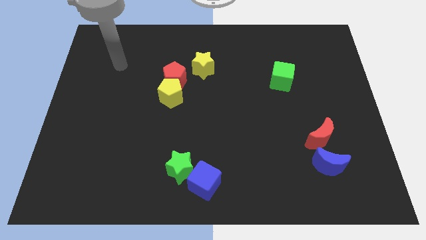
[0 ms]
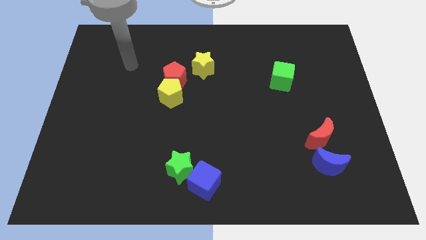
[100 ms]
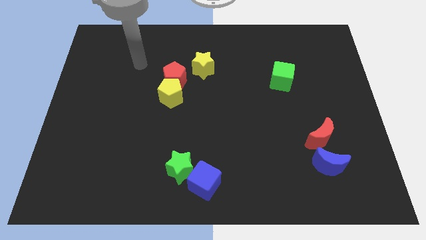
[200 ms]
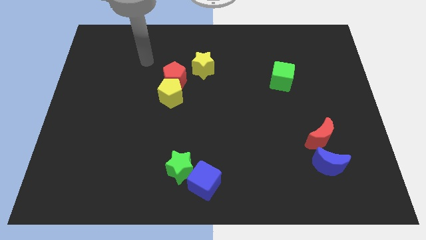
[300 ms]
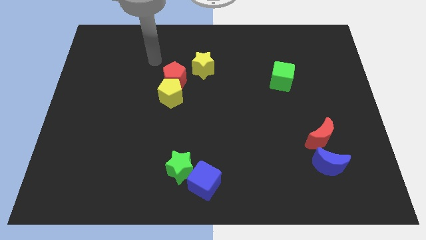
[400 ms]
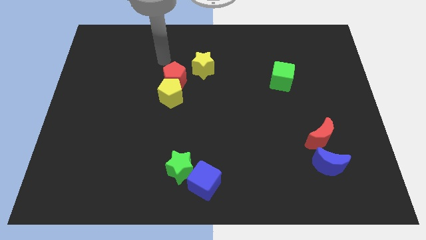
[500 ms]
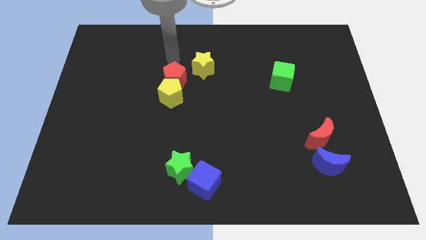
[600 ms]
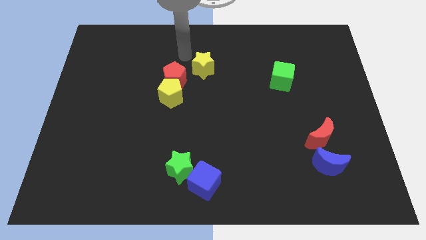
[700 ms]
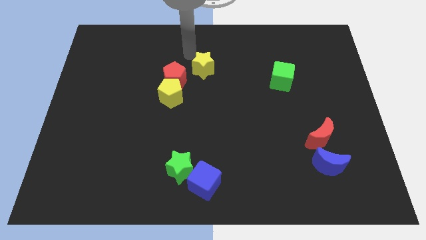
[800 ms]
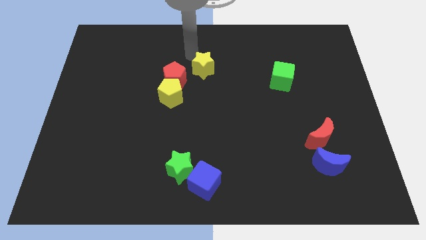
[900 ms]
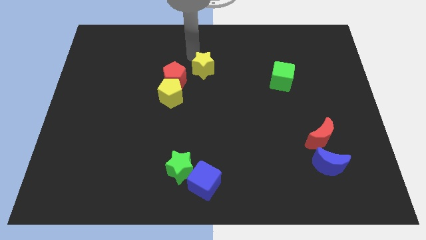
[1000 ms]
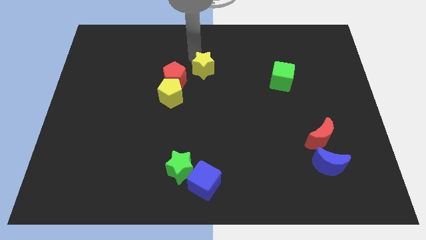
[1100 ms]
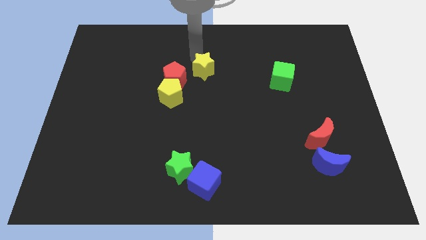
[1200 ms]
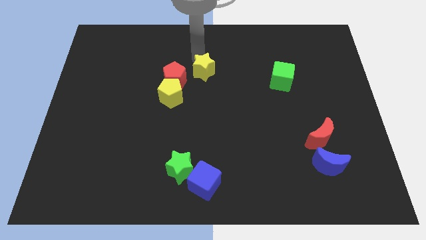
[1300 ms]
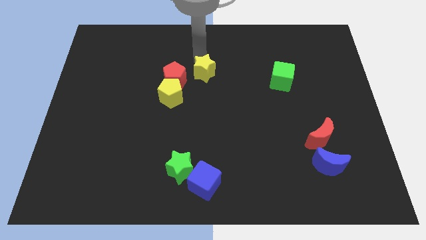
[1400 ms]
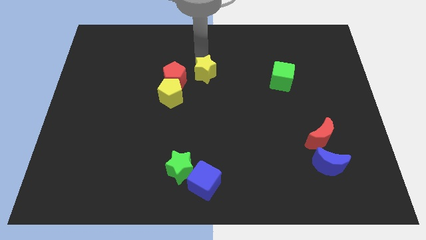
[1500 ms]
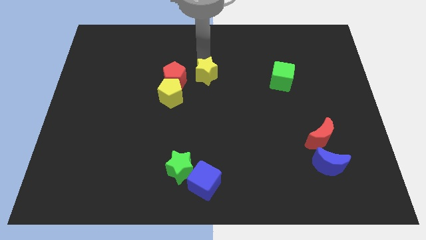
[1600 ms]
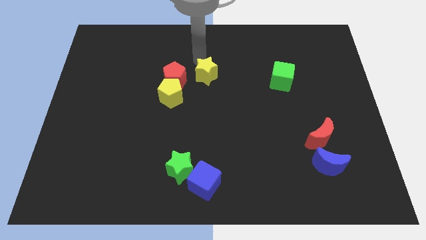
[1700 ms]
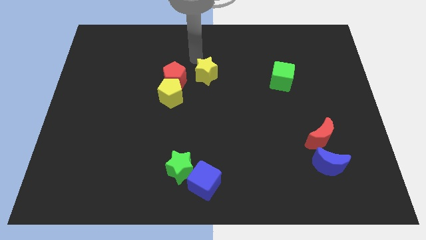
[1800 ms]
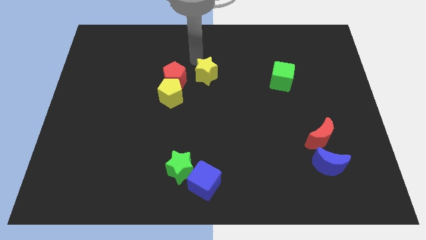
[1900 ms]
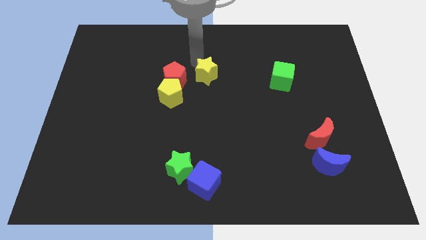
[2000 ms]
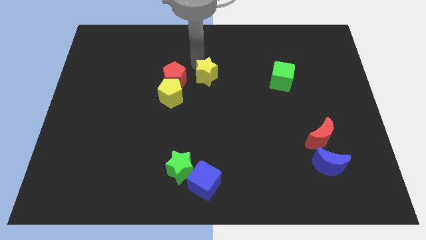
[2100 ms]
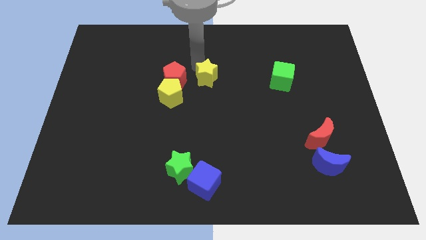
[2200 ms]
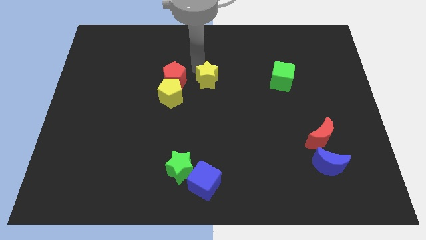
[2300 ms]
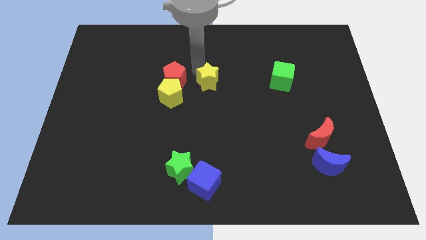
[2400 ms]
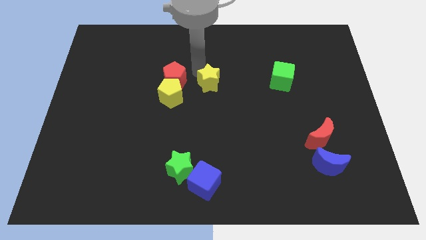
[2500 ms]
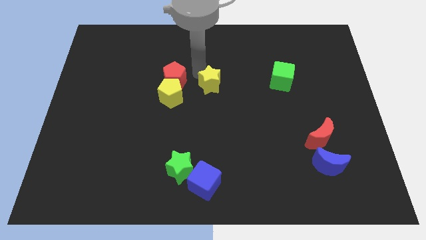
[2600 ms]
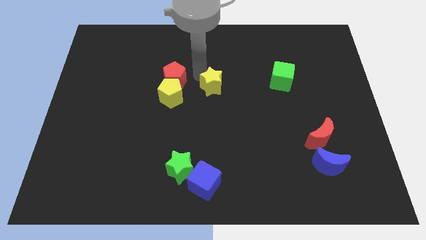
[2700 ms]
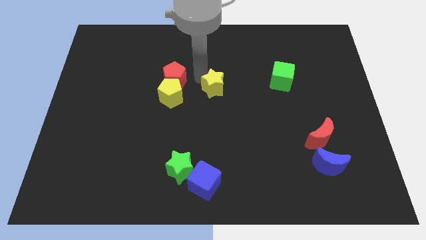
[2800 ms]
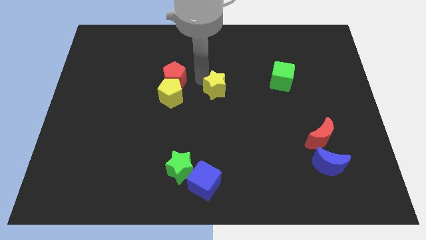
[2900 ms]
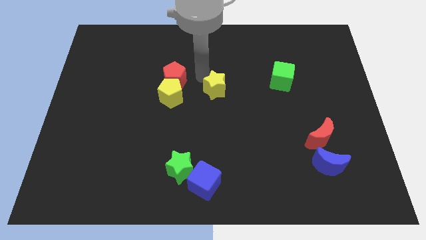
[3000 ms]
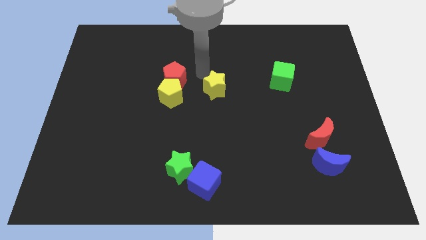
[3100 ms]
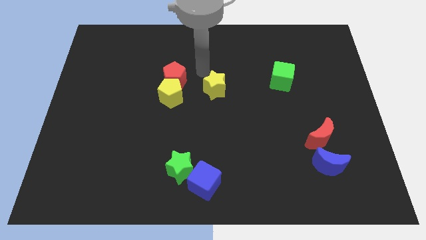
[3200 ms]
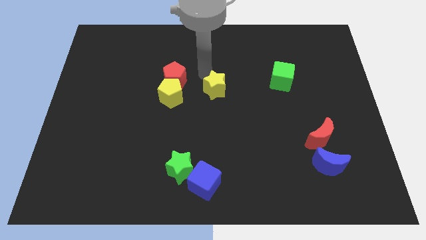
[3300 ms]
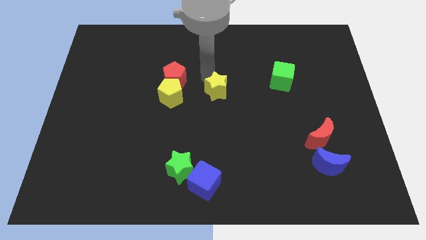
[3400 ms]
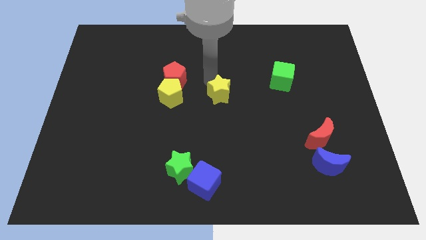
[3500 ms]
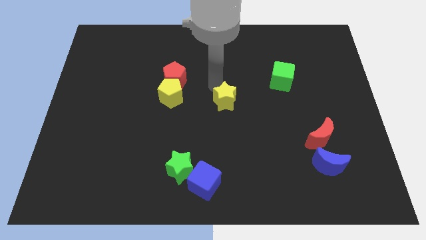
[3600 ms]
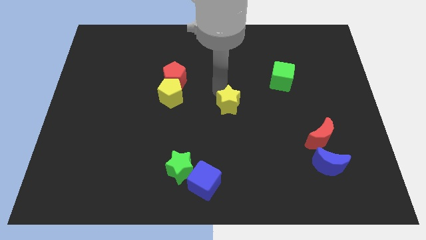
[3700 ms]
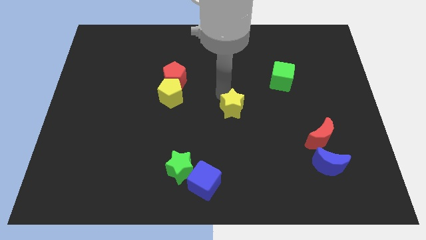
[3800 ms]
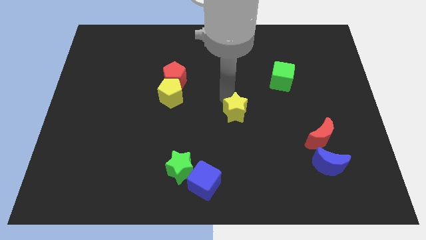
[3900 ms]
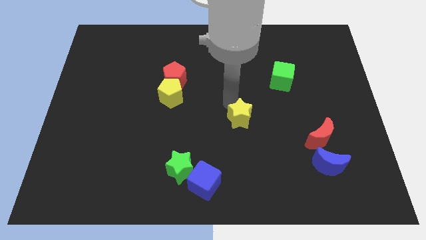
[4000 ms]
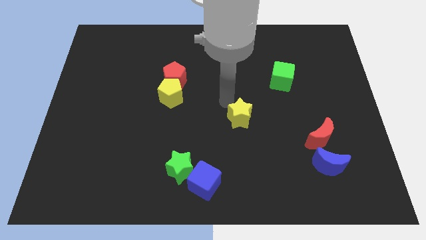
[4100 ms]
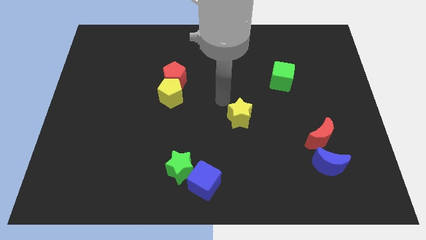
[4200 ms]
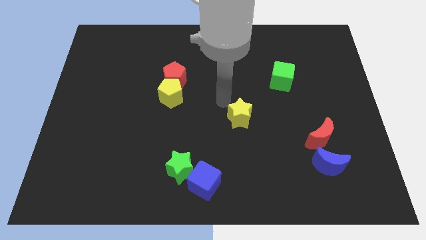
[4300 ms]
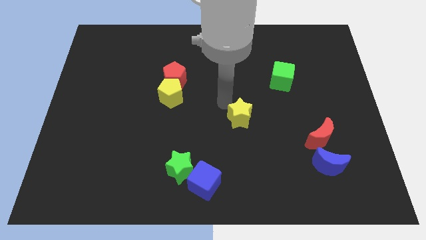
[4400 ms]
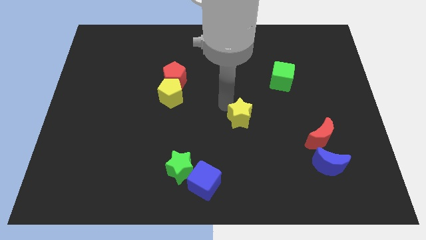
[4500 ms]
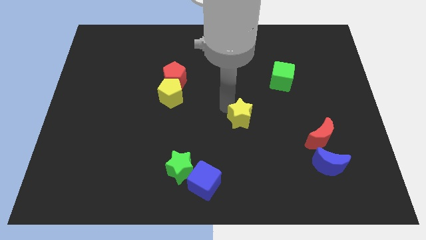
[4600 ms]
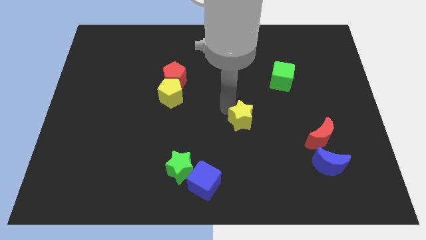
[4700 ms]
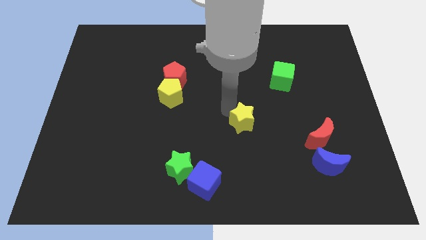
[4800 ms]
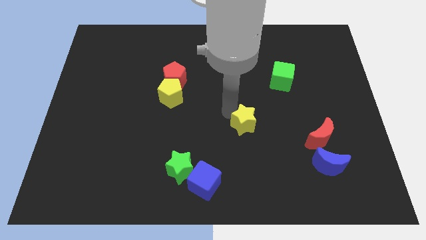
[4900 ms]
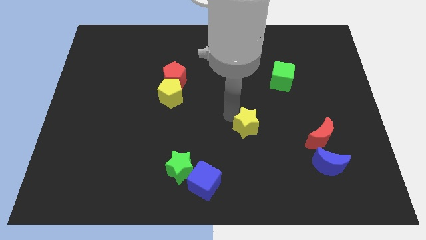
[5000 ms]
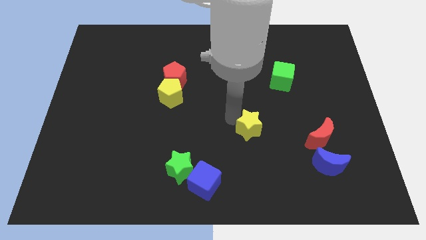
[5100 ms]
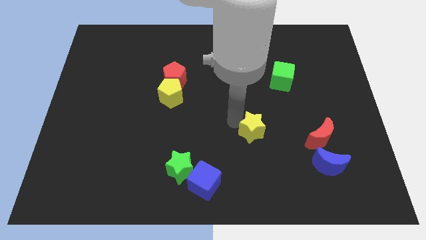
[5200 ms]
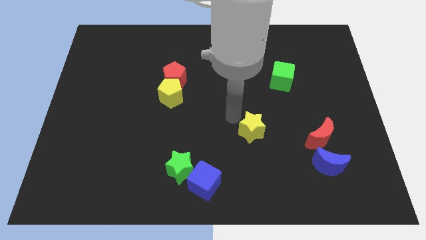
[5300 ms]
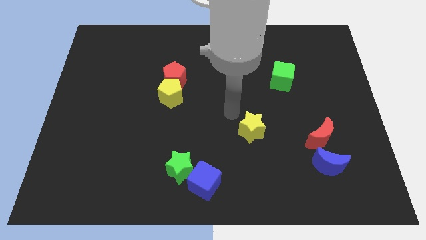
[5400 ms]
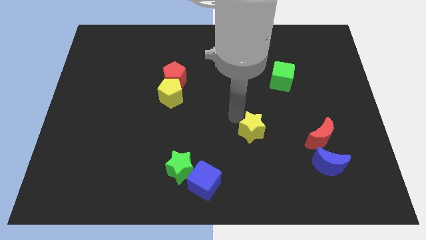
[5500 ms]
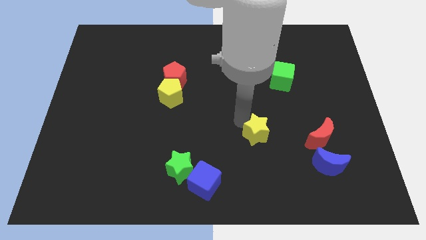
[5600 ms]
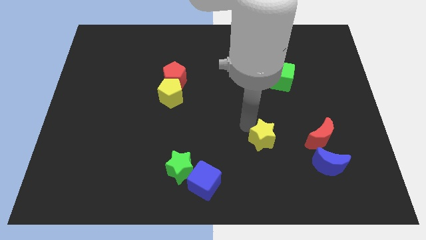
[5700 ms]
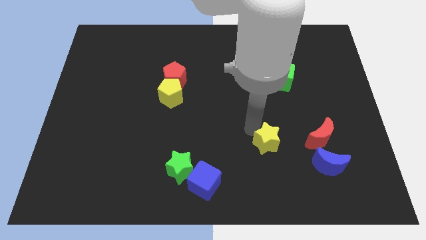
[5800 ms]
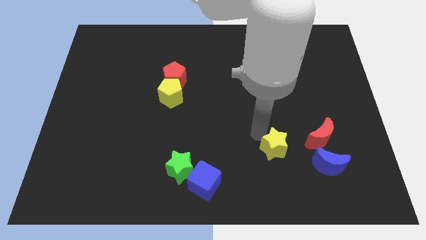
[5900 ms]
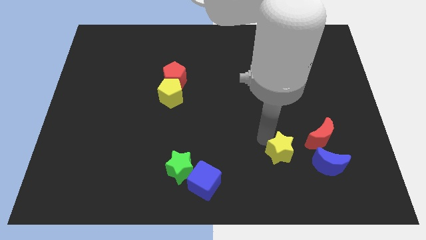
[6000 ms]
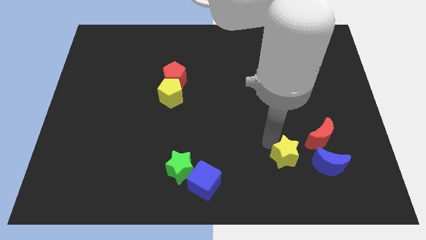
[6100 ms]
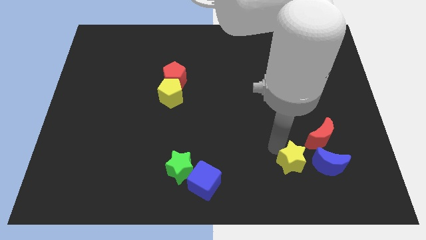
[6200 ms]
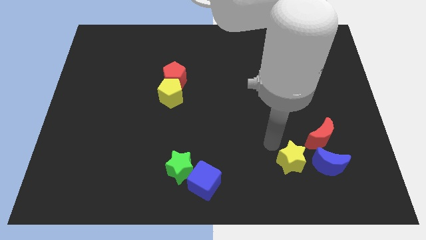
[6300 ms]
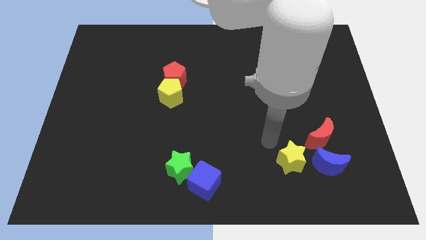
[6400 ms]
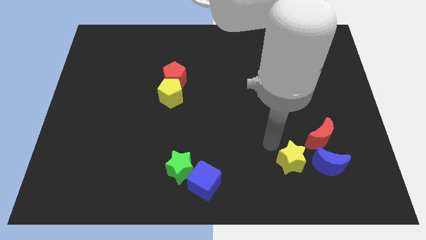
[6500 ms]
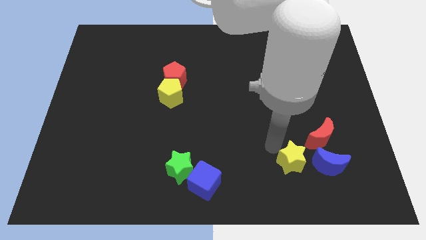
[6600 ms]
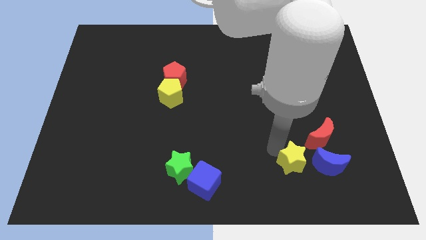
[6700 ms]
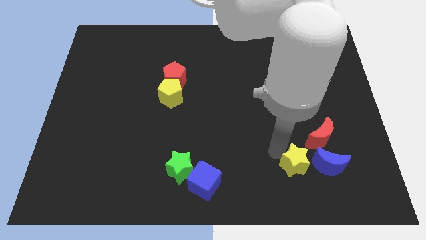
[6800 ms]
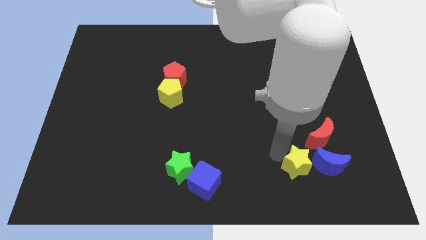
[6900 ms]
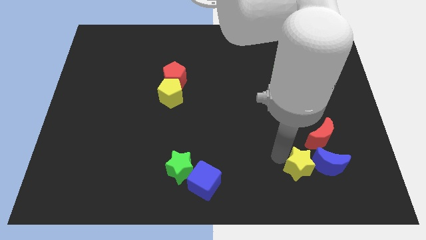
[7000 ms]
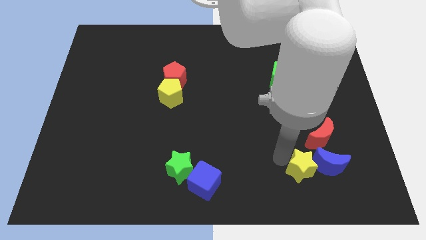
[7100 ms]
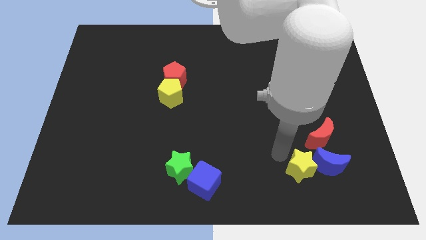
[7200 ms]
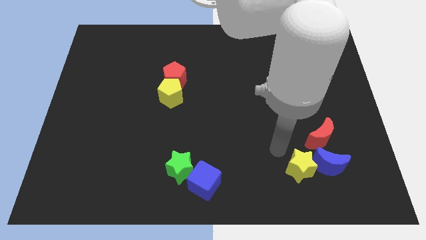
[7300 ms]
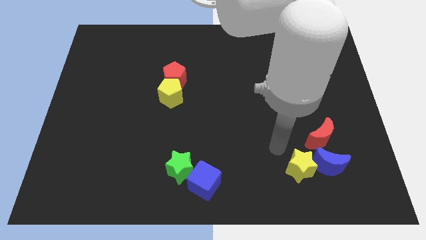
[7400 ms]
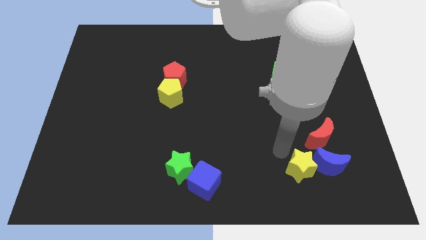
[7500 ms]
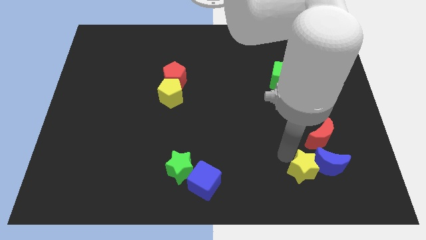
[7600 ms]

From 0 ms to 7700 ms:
push the yellow star below the red moon
